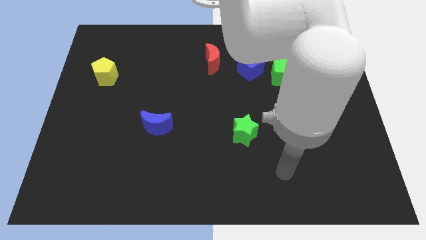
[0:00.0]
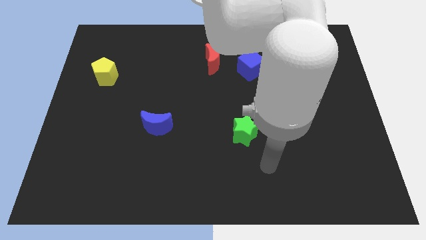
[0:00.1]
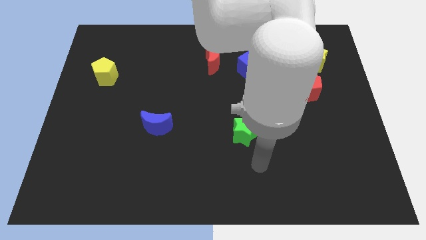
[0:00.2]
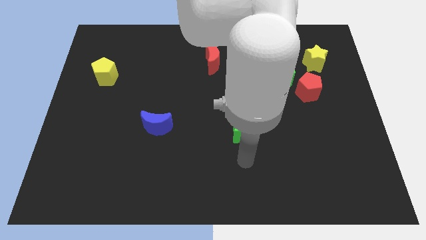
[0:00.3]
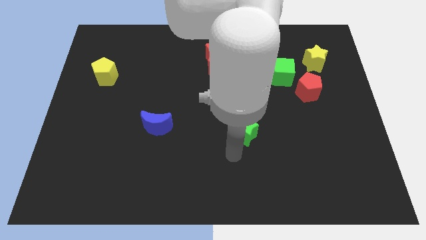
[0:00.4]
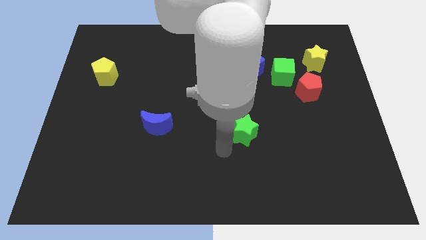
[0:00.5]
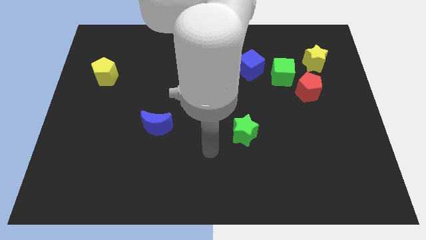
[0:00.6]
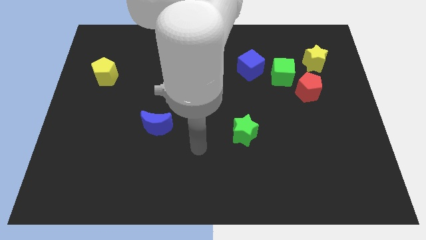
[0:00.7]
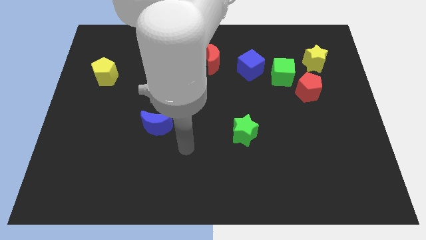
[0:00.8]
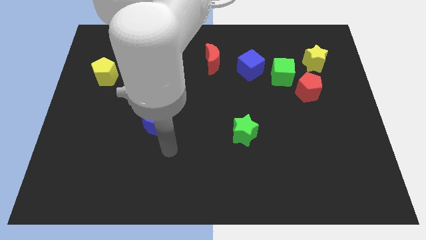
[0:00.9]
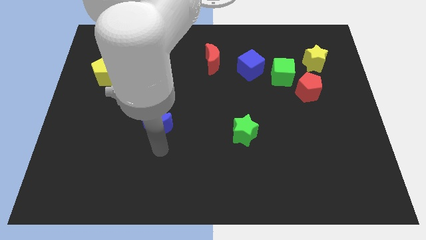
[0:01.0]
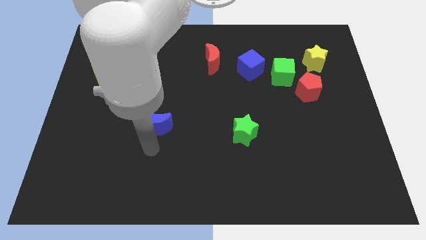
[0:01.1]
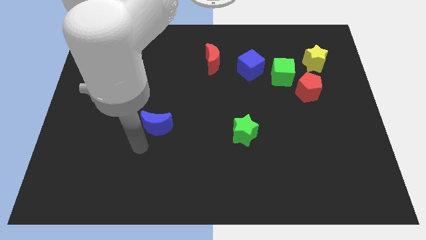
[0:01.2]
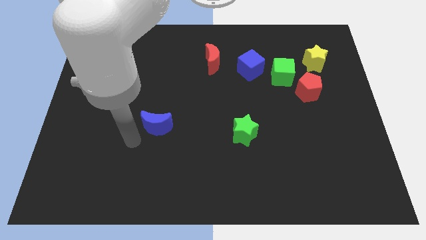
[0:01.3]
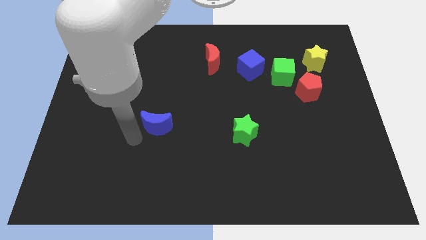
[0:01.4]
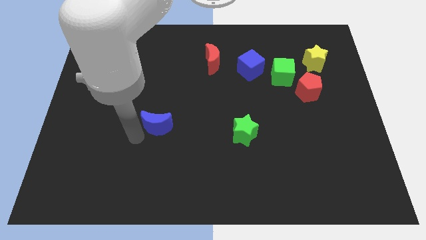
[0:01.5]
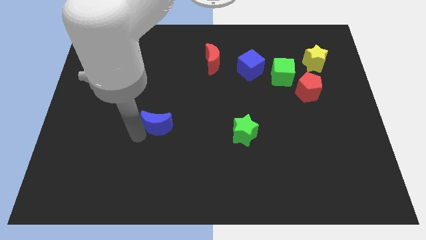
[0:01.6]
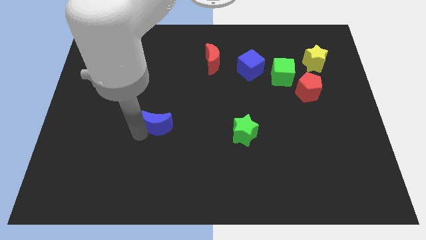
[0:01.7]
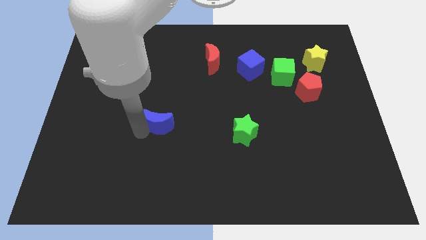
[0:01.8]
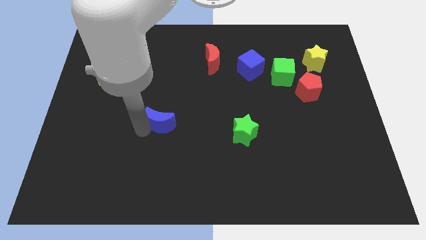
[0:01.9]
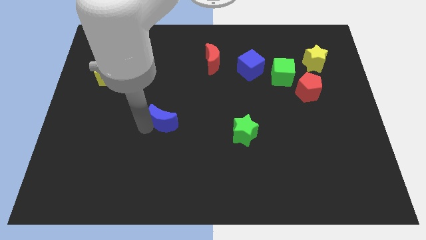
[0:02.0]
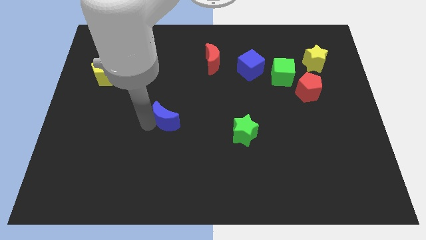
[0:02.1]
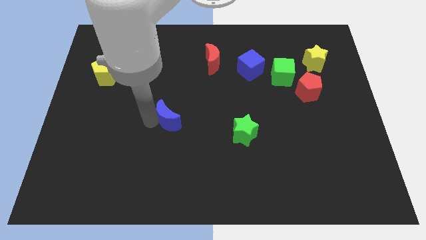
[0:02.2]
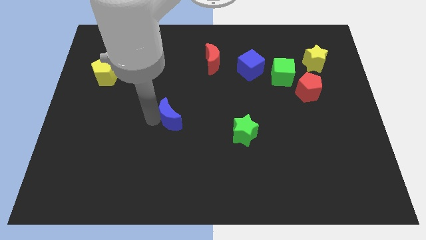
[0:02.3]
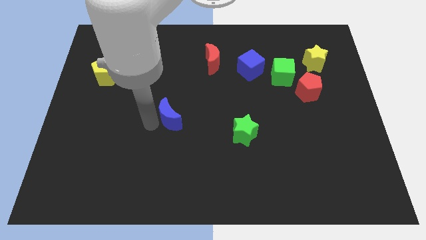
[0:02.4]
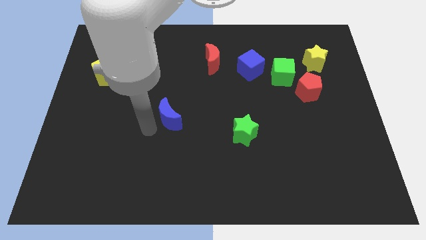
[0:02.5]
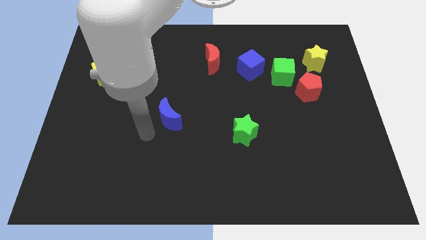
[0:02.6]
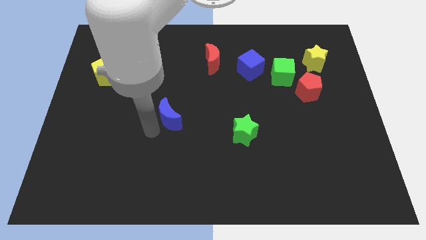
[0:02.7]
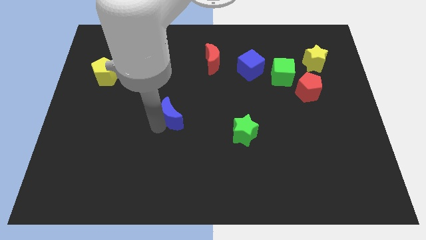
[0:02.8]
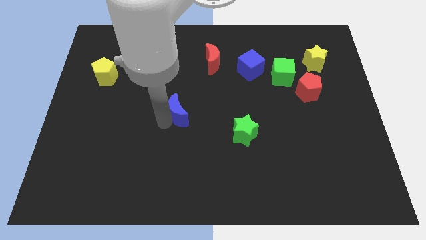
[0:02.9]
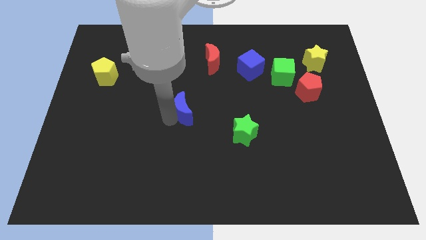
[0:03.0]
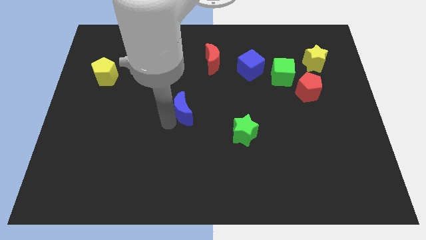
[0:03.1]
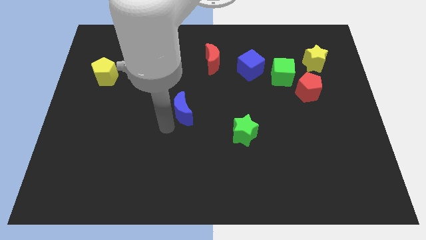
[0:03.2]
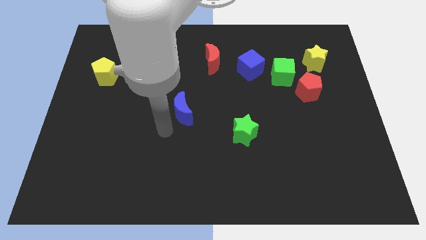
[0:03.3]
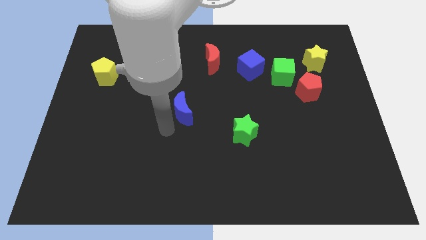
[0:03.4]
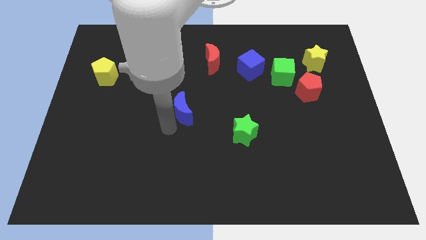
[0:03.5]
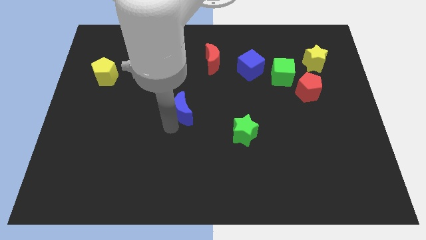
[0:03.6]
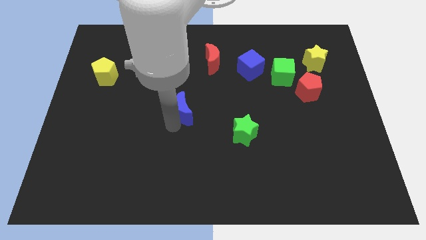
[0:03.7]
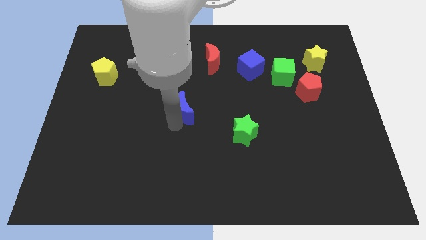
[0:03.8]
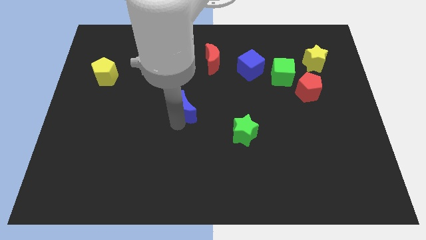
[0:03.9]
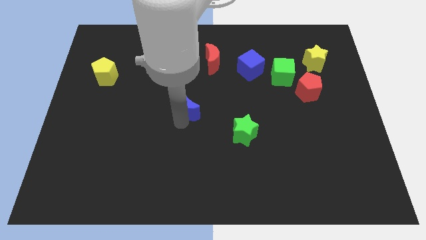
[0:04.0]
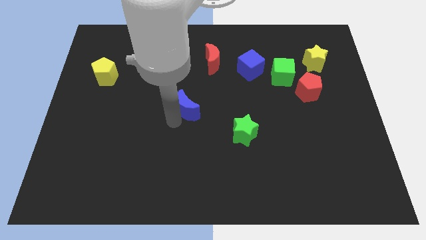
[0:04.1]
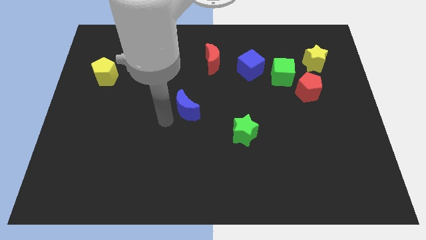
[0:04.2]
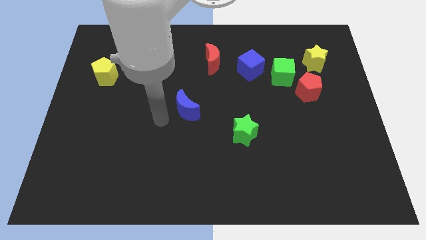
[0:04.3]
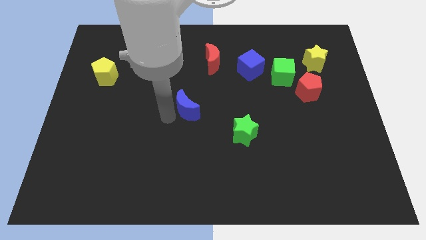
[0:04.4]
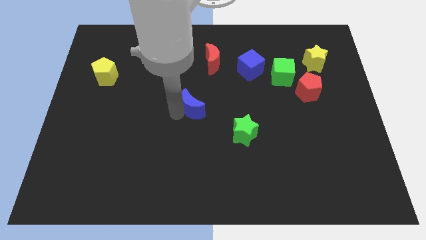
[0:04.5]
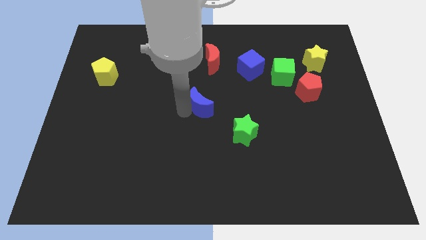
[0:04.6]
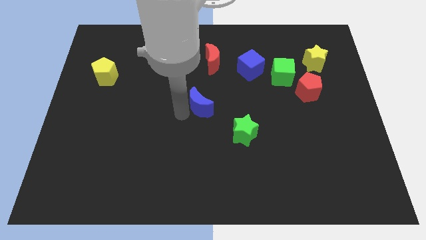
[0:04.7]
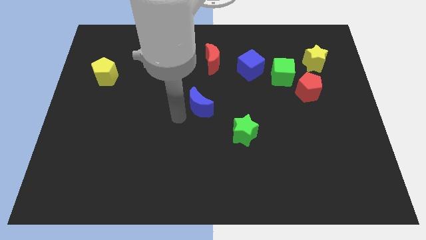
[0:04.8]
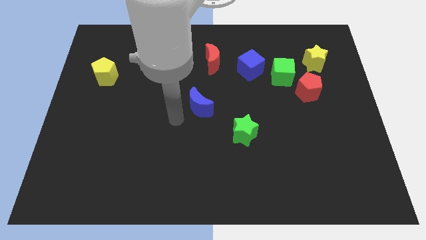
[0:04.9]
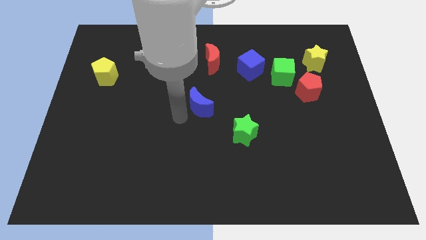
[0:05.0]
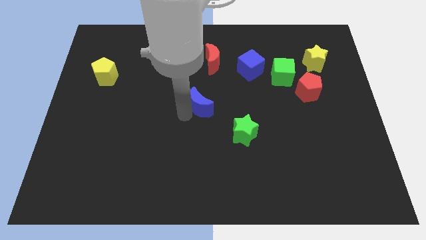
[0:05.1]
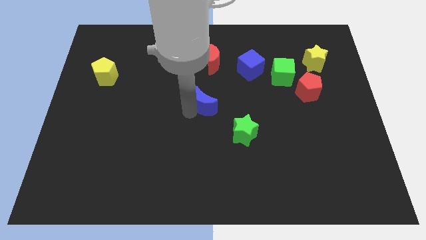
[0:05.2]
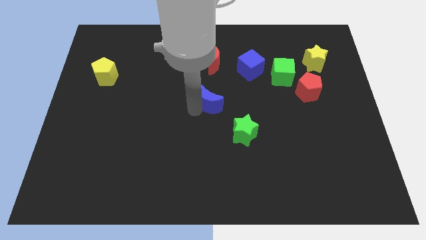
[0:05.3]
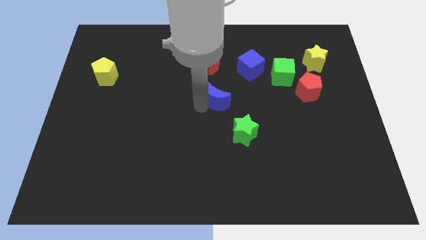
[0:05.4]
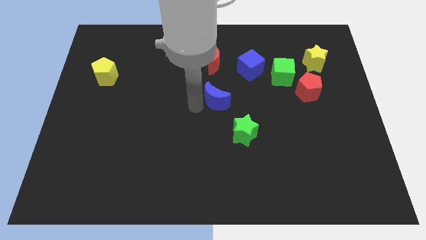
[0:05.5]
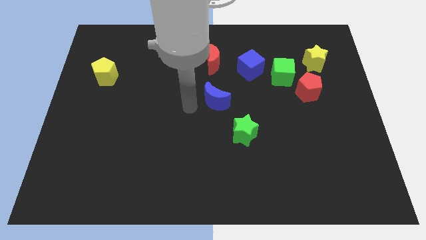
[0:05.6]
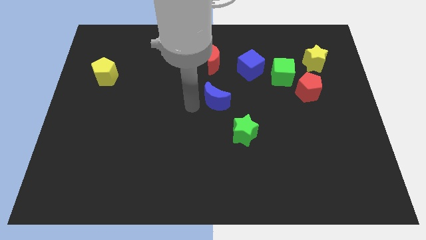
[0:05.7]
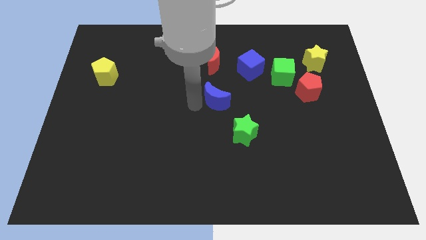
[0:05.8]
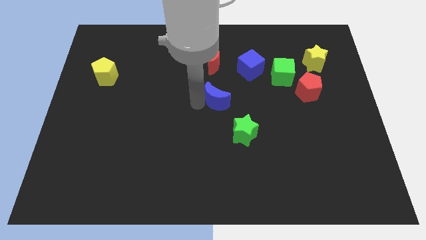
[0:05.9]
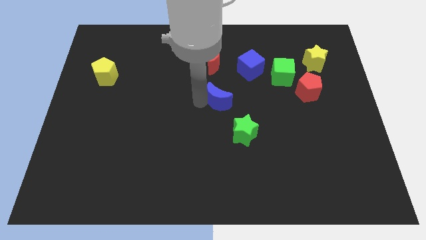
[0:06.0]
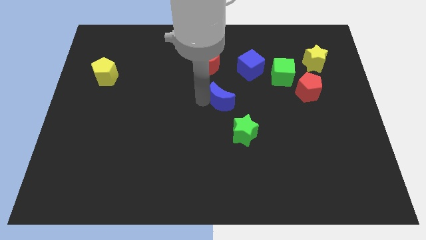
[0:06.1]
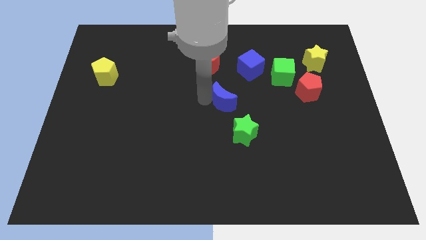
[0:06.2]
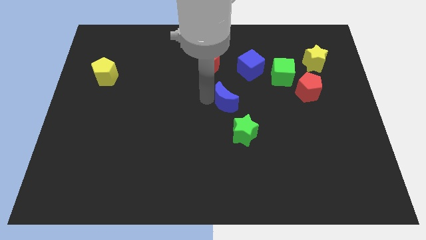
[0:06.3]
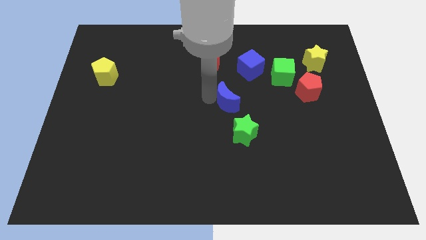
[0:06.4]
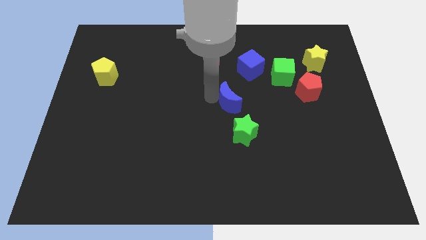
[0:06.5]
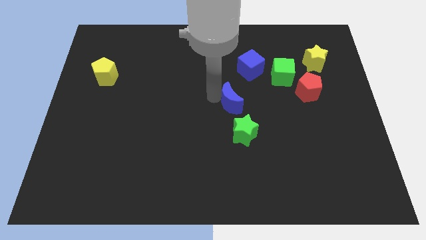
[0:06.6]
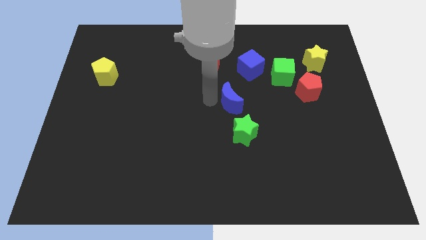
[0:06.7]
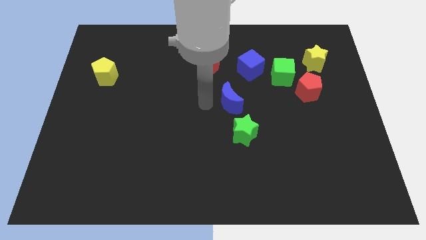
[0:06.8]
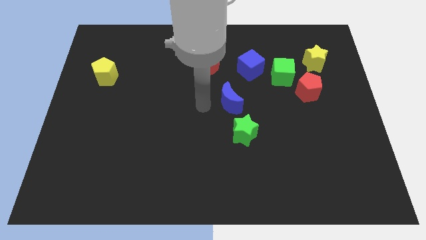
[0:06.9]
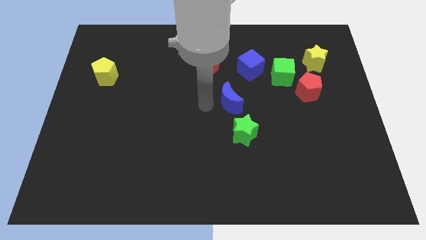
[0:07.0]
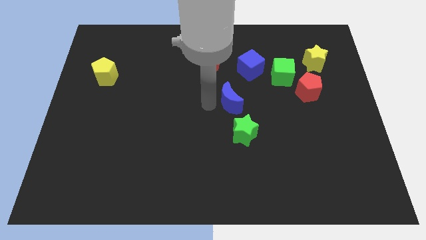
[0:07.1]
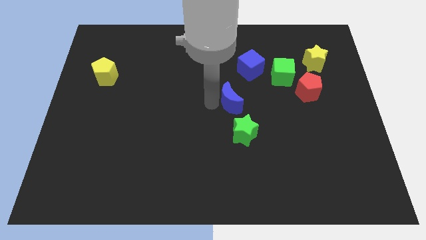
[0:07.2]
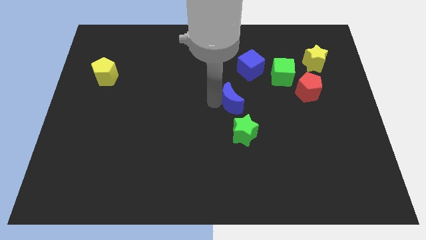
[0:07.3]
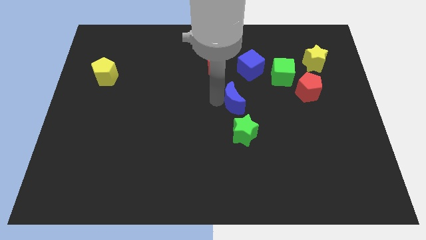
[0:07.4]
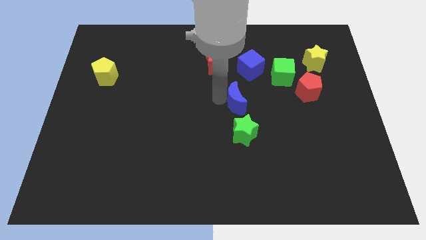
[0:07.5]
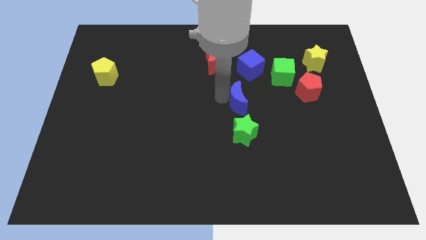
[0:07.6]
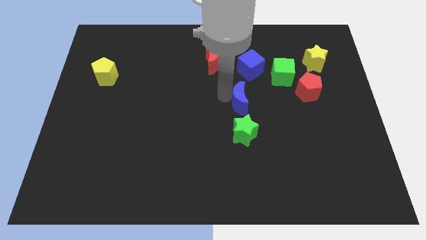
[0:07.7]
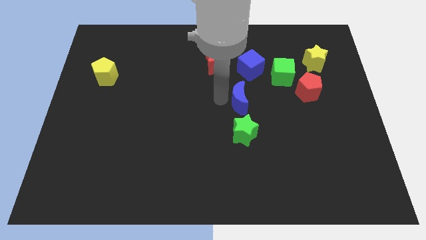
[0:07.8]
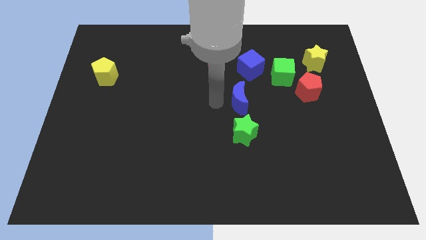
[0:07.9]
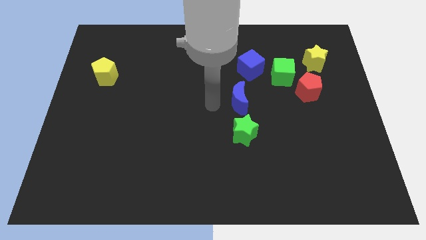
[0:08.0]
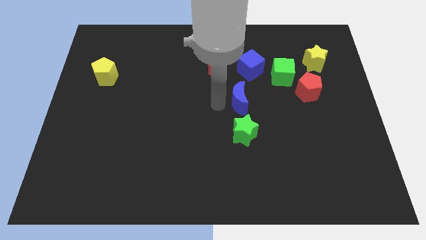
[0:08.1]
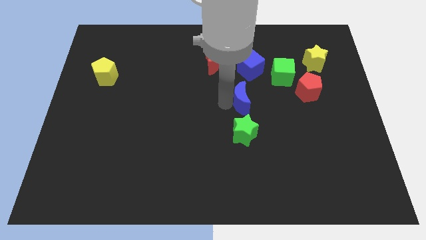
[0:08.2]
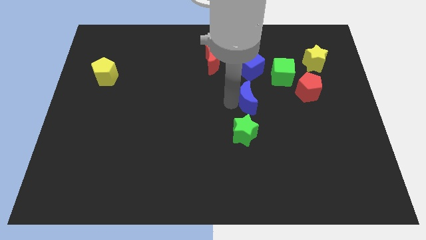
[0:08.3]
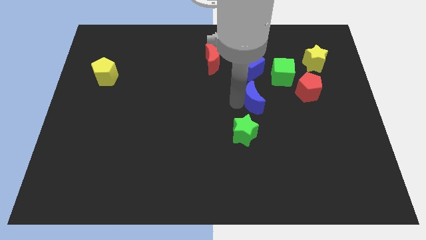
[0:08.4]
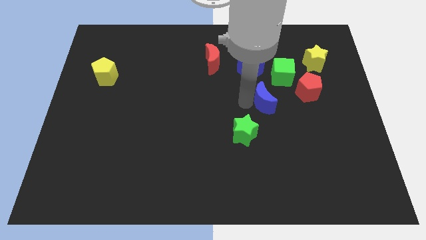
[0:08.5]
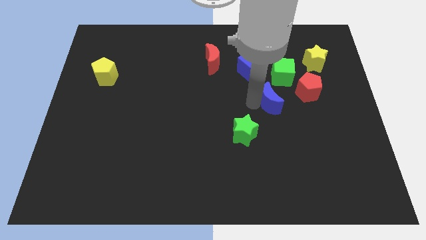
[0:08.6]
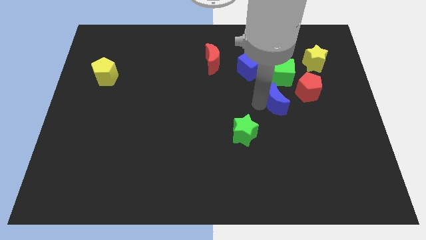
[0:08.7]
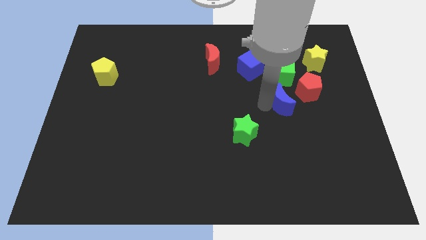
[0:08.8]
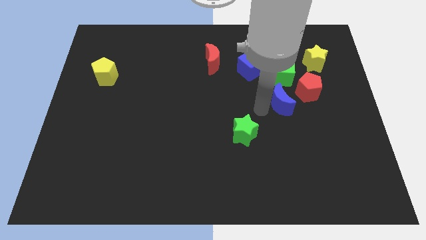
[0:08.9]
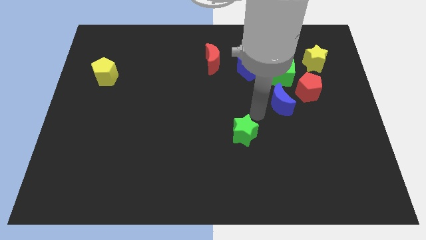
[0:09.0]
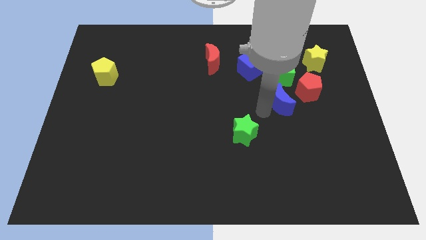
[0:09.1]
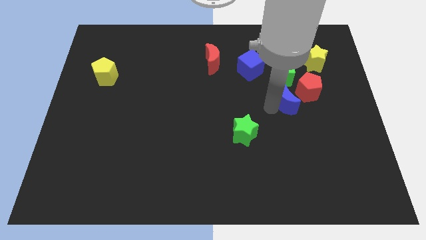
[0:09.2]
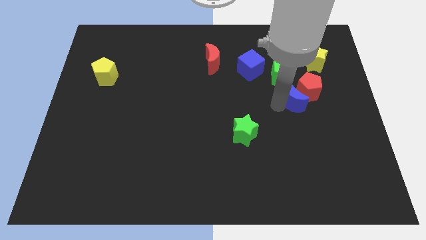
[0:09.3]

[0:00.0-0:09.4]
move the blue moon next to the red pentagon
